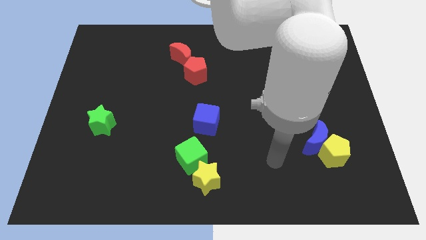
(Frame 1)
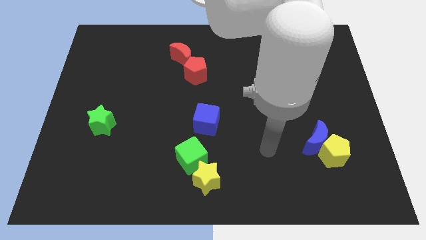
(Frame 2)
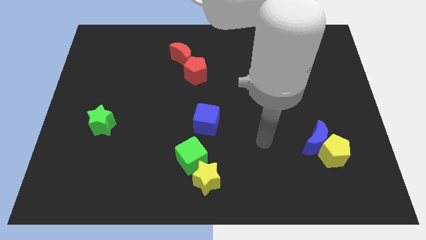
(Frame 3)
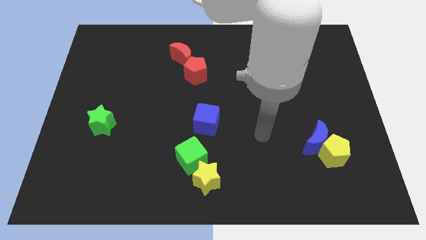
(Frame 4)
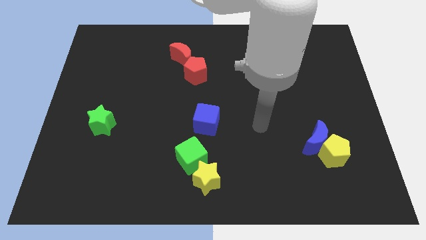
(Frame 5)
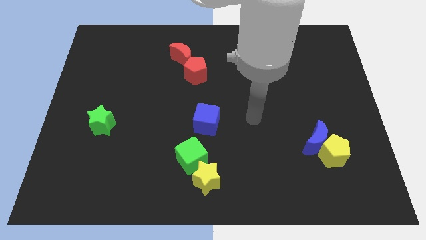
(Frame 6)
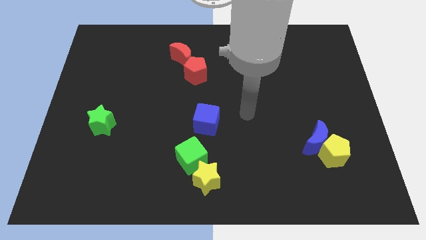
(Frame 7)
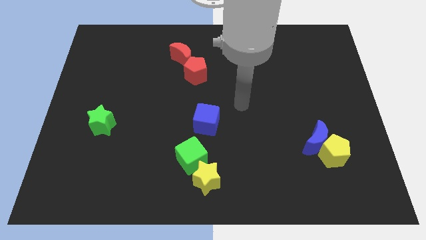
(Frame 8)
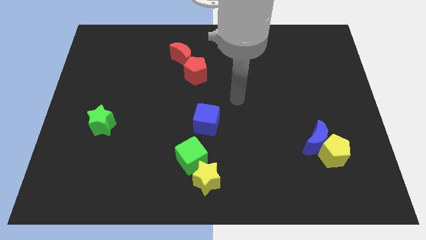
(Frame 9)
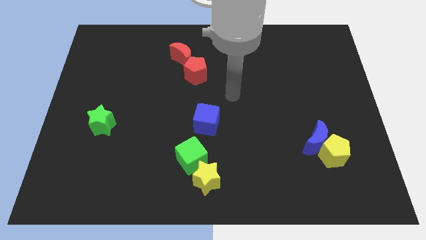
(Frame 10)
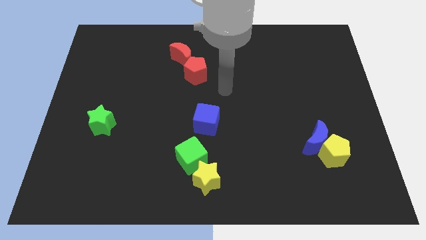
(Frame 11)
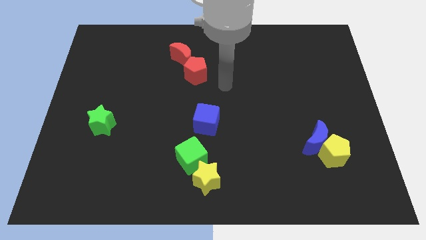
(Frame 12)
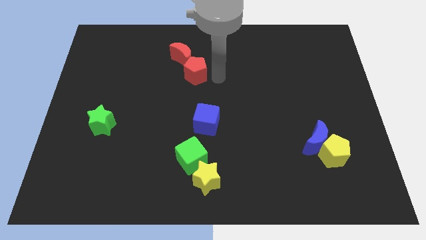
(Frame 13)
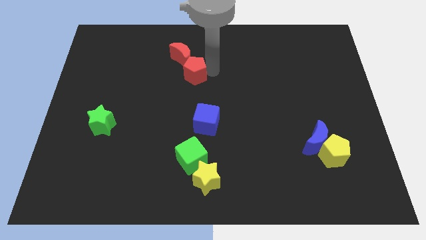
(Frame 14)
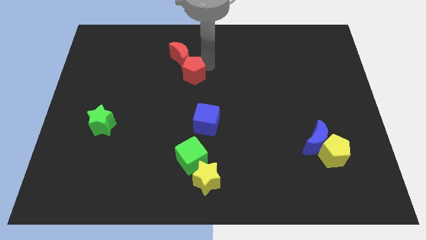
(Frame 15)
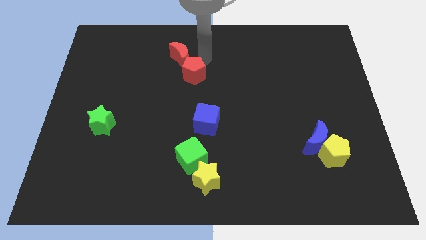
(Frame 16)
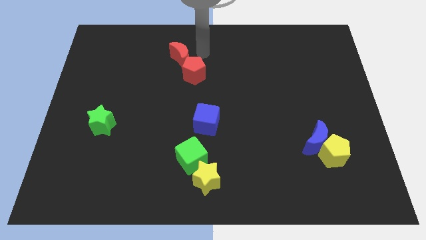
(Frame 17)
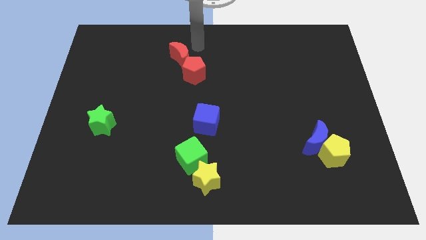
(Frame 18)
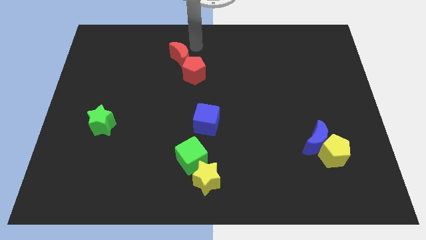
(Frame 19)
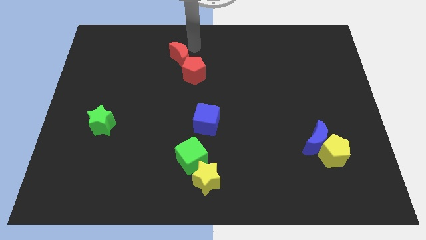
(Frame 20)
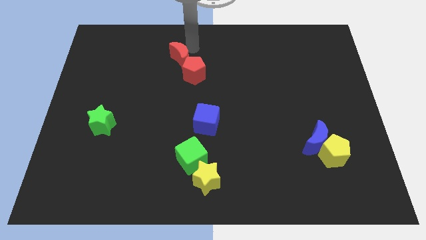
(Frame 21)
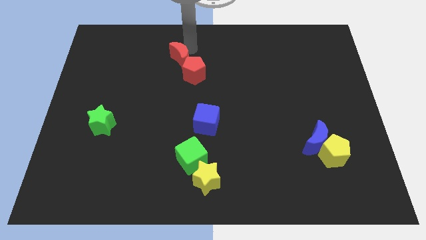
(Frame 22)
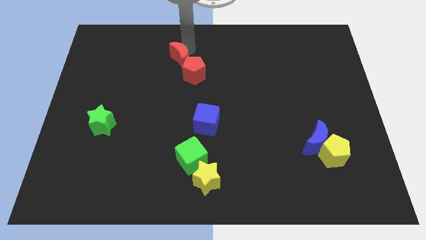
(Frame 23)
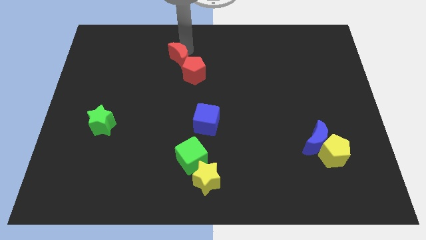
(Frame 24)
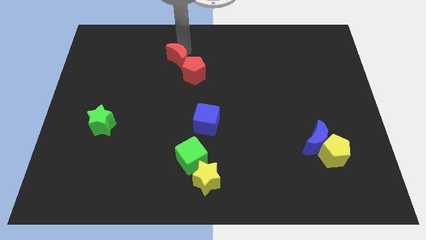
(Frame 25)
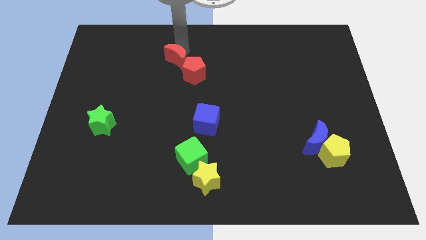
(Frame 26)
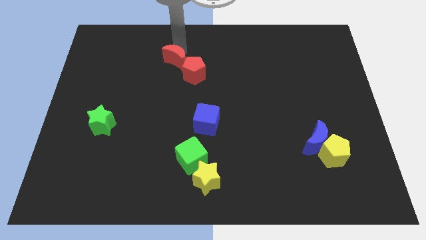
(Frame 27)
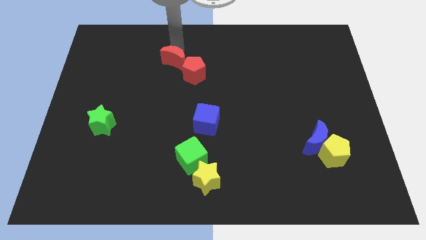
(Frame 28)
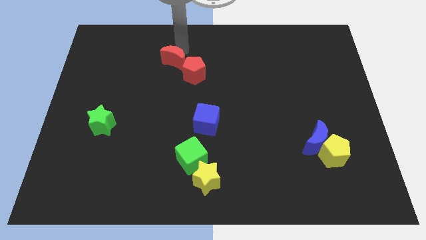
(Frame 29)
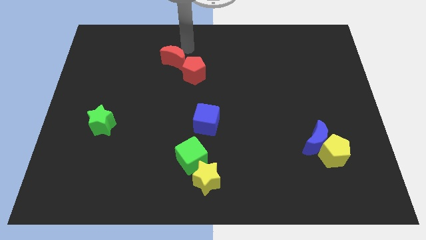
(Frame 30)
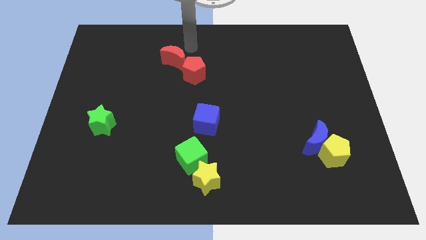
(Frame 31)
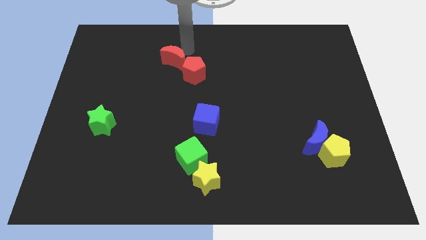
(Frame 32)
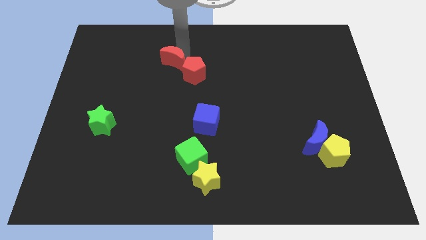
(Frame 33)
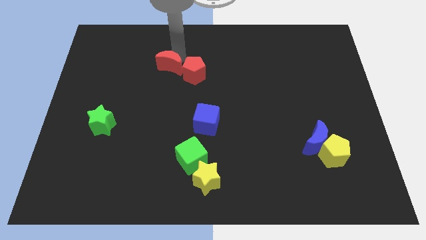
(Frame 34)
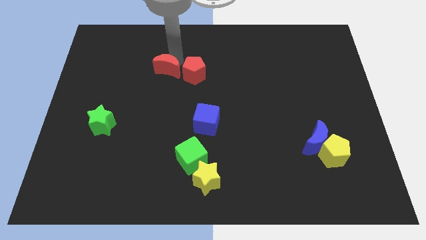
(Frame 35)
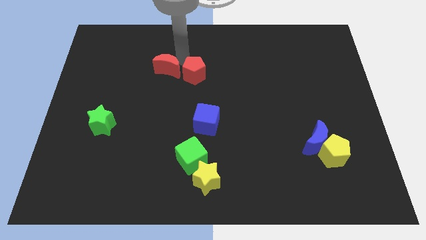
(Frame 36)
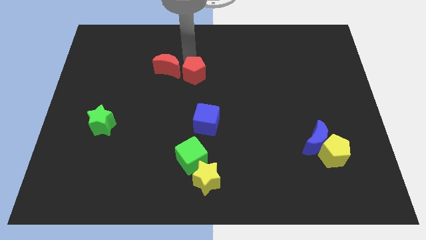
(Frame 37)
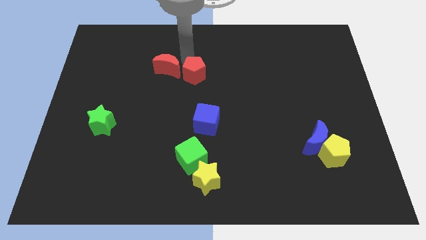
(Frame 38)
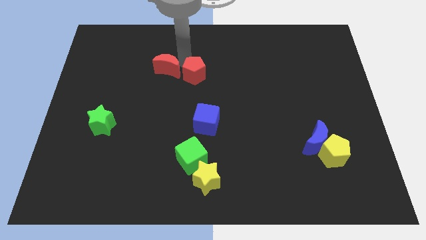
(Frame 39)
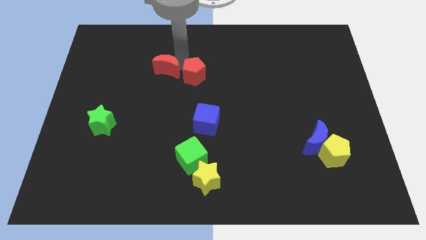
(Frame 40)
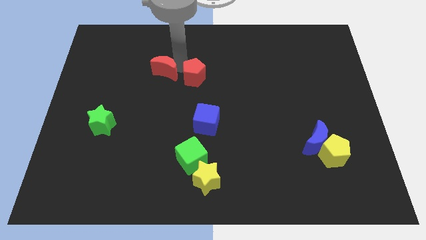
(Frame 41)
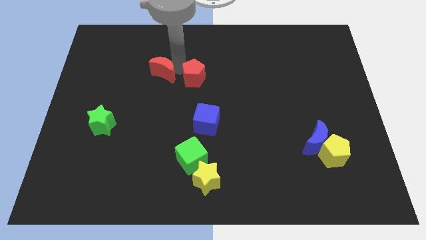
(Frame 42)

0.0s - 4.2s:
slightly move the red moon downwards and then left

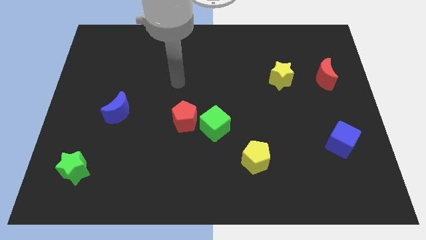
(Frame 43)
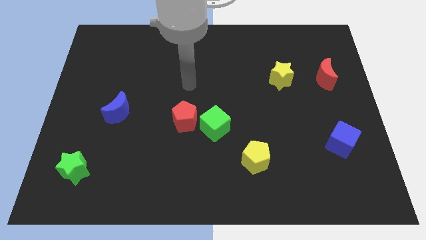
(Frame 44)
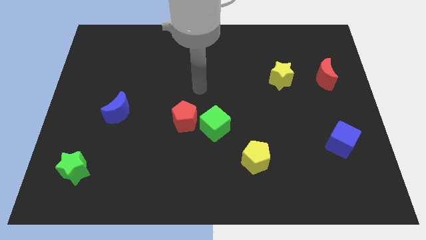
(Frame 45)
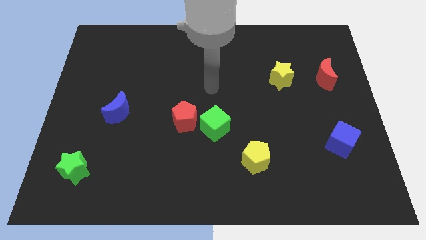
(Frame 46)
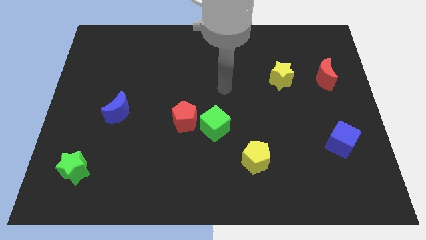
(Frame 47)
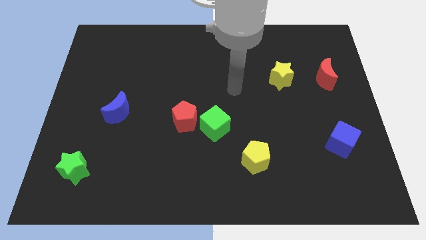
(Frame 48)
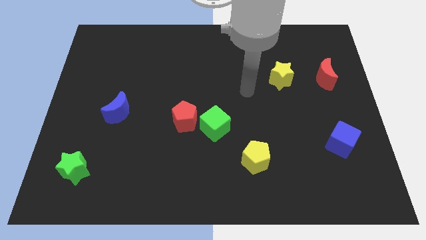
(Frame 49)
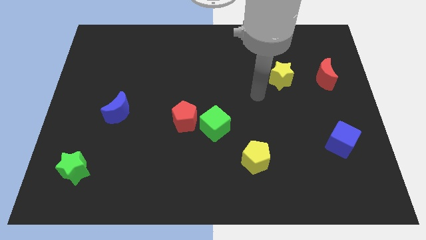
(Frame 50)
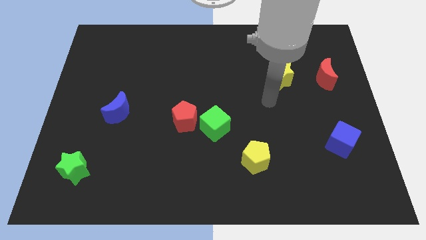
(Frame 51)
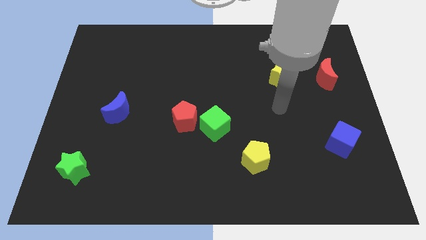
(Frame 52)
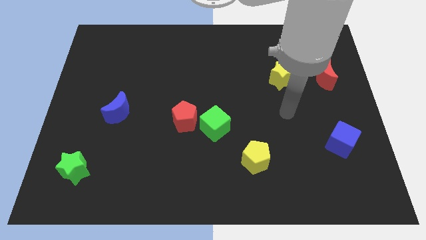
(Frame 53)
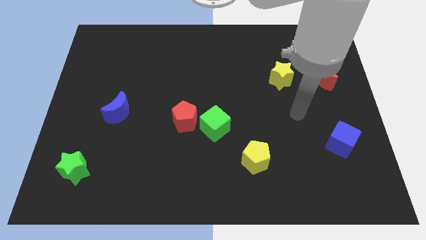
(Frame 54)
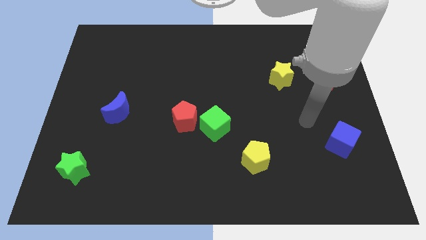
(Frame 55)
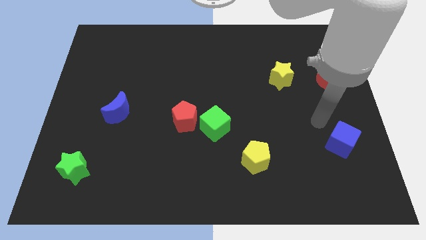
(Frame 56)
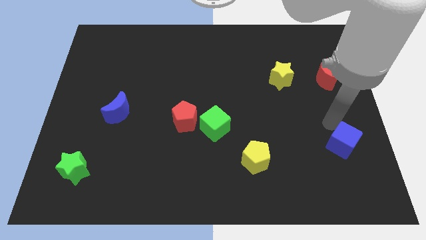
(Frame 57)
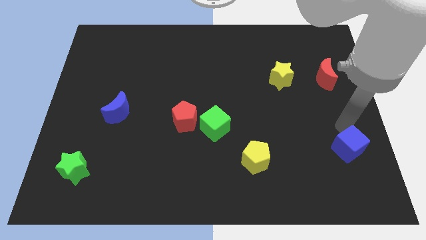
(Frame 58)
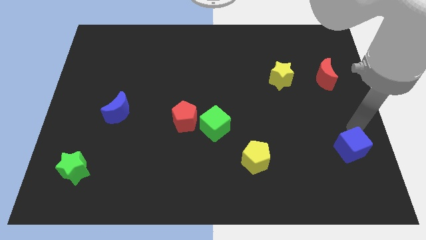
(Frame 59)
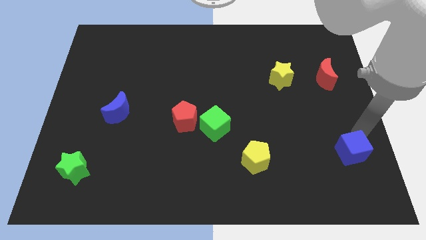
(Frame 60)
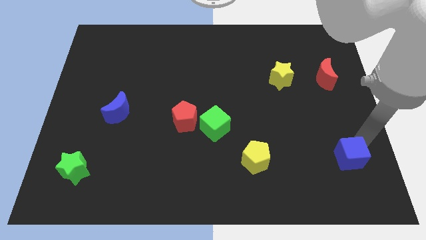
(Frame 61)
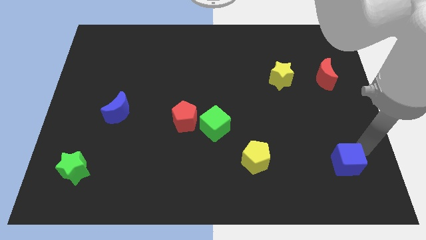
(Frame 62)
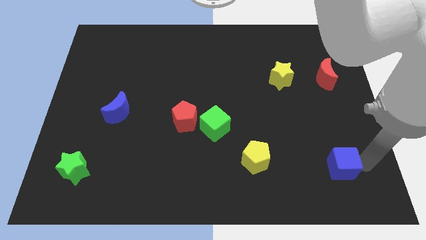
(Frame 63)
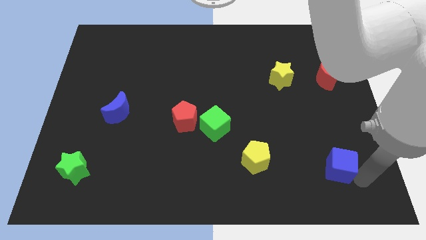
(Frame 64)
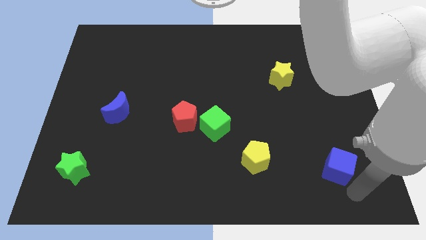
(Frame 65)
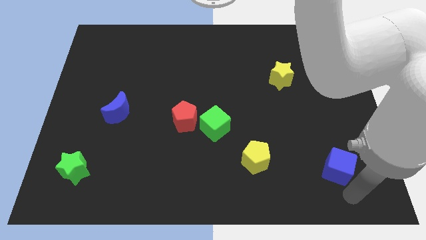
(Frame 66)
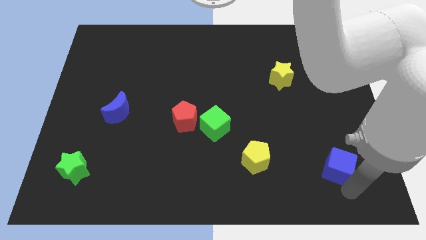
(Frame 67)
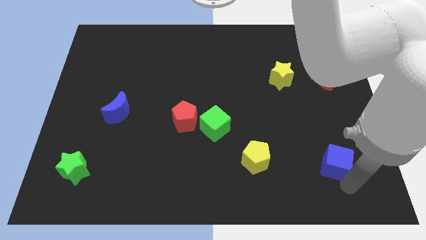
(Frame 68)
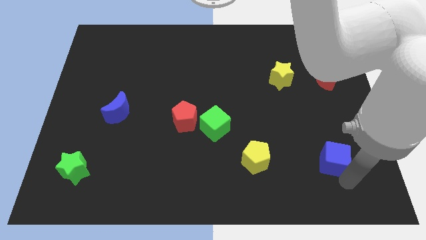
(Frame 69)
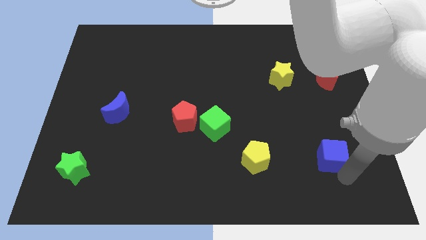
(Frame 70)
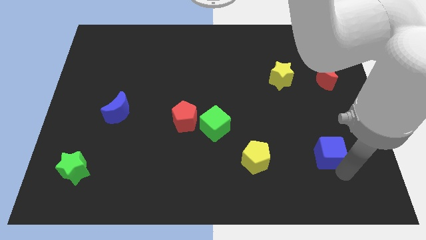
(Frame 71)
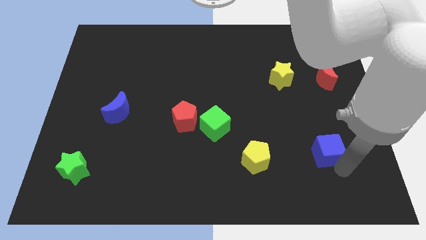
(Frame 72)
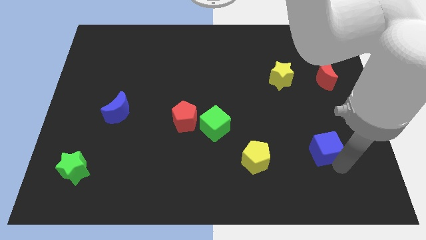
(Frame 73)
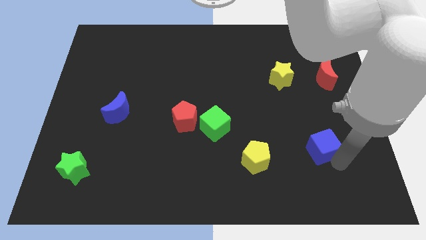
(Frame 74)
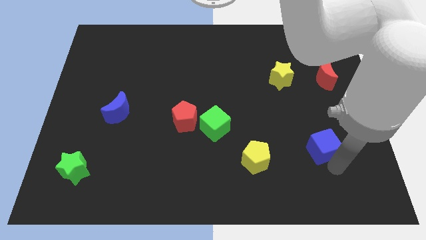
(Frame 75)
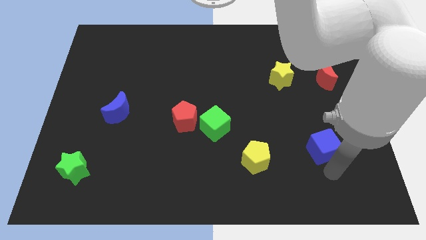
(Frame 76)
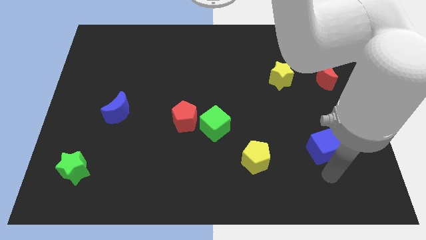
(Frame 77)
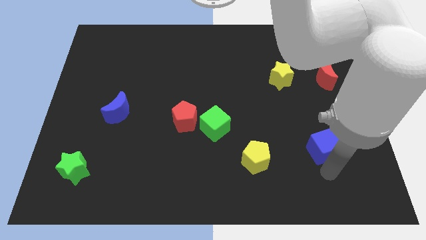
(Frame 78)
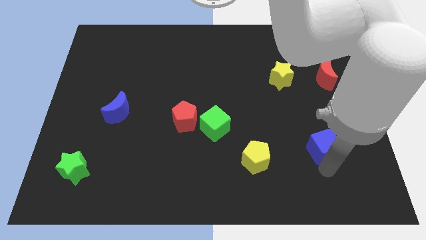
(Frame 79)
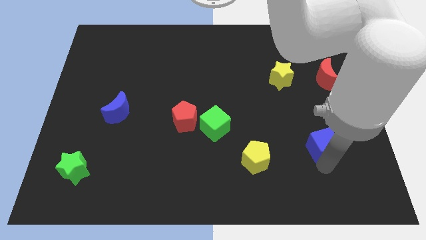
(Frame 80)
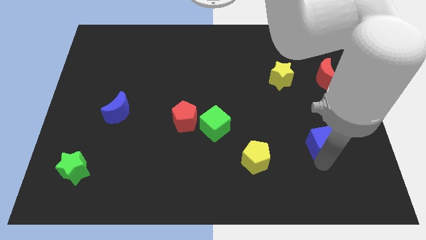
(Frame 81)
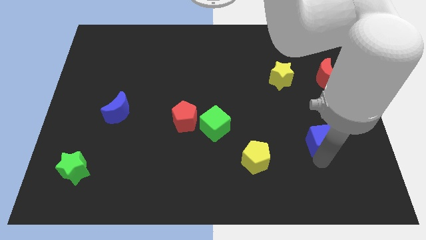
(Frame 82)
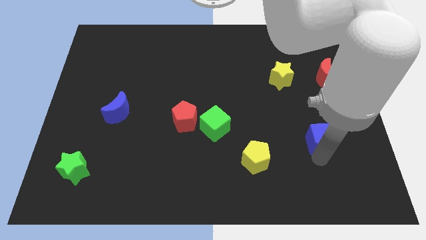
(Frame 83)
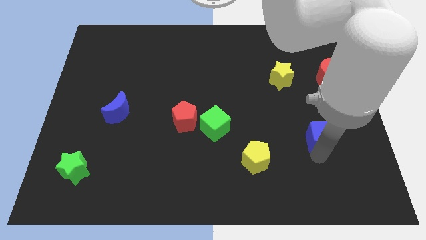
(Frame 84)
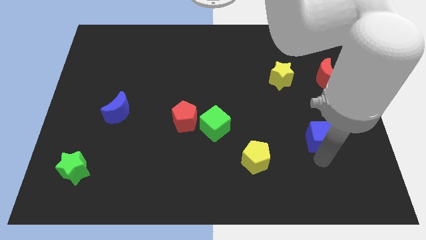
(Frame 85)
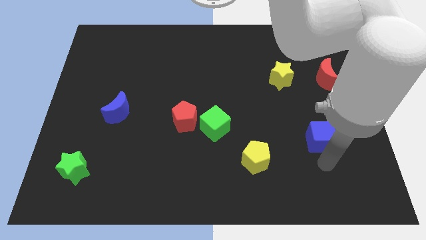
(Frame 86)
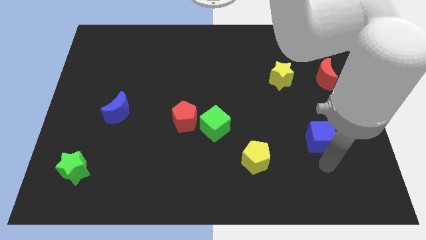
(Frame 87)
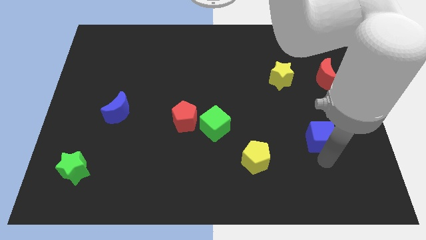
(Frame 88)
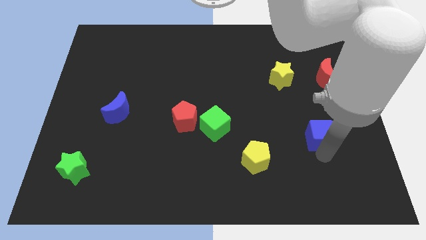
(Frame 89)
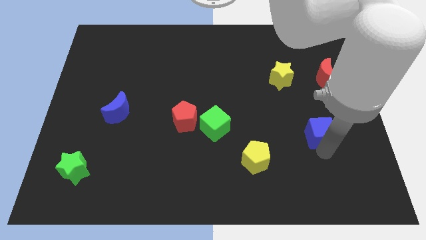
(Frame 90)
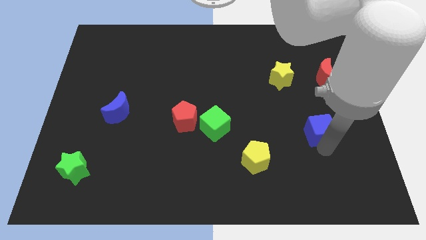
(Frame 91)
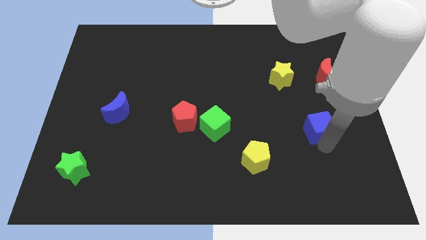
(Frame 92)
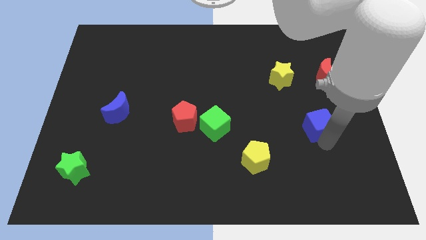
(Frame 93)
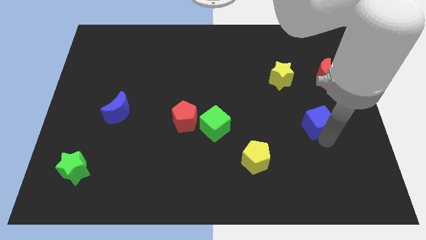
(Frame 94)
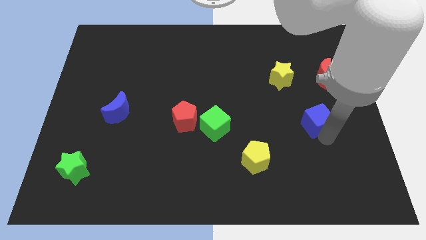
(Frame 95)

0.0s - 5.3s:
push the blue cube slightly upwards and left
